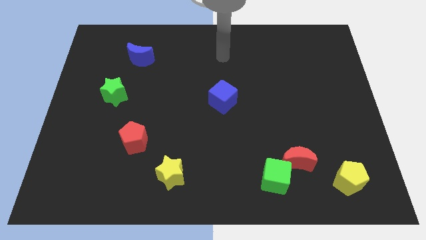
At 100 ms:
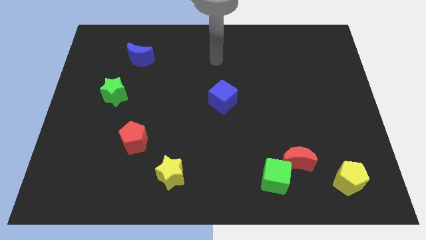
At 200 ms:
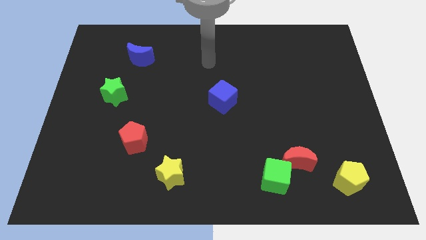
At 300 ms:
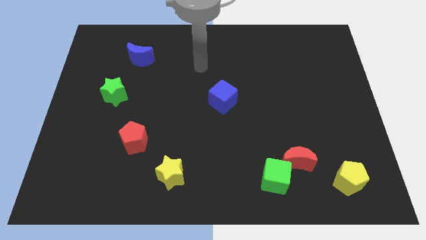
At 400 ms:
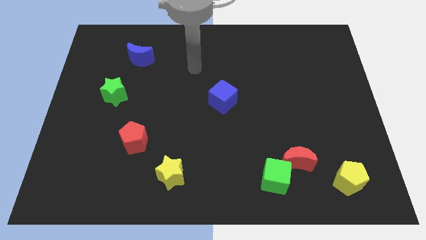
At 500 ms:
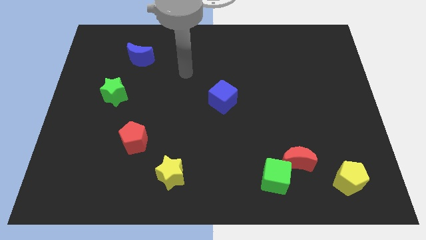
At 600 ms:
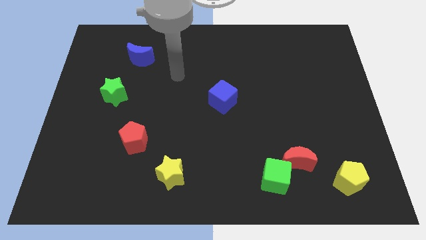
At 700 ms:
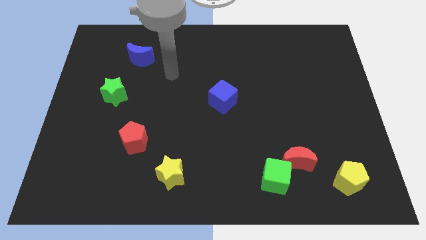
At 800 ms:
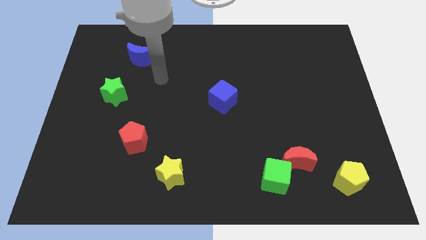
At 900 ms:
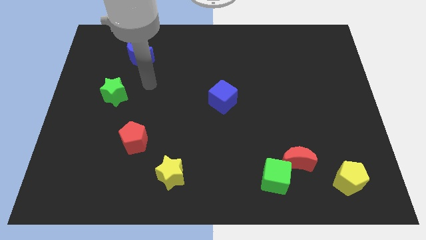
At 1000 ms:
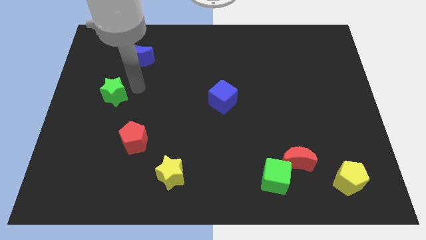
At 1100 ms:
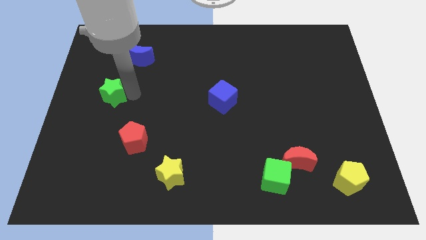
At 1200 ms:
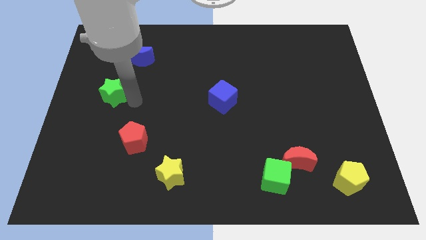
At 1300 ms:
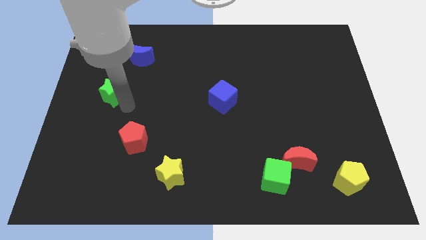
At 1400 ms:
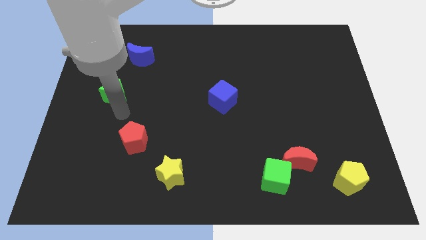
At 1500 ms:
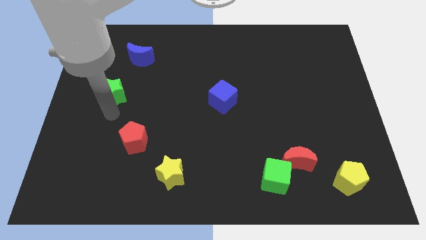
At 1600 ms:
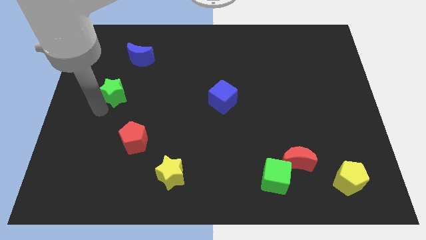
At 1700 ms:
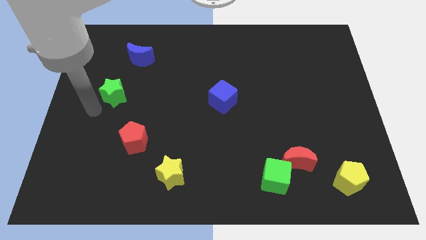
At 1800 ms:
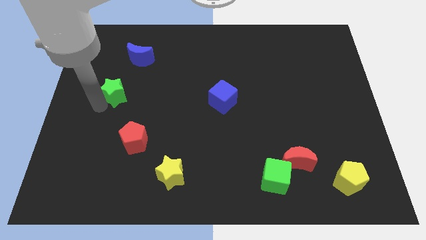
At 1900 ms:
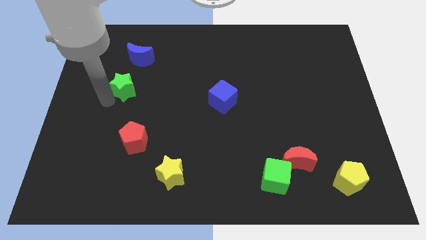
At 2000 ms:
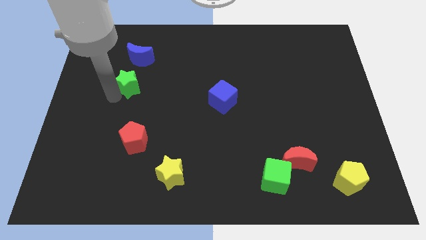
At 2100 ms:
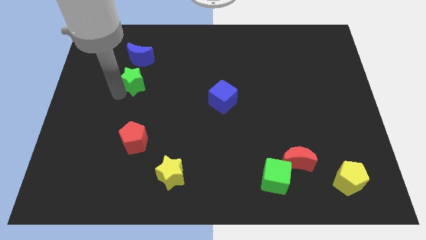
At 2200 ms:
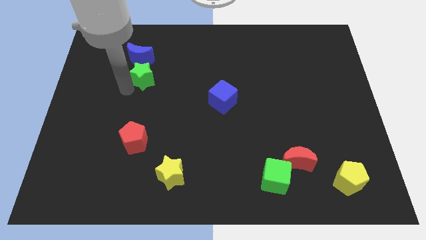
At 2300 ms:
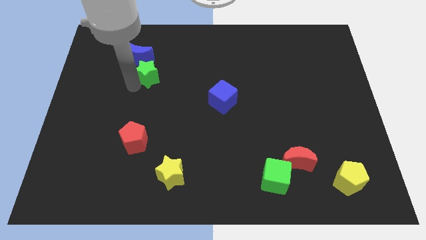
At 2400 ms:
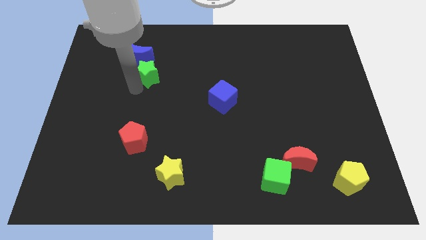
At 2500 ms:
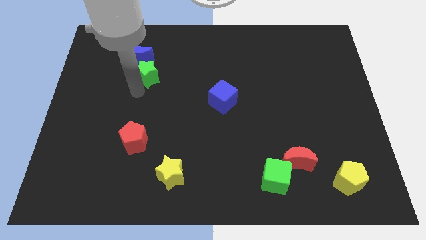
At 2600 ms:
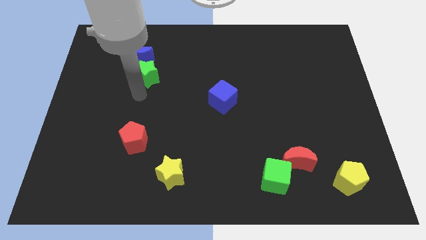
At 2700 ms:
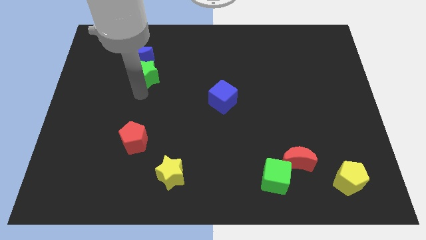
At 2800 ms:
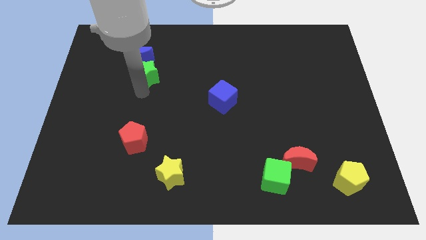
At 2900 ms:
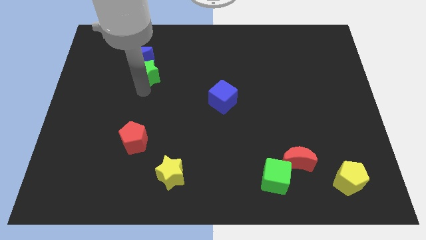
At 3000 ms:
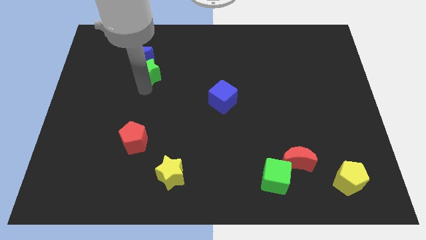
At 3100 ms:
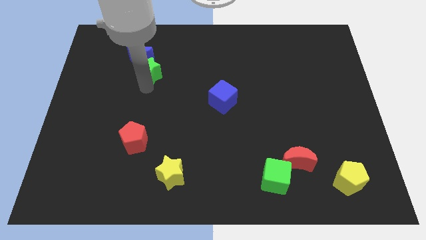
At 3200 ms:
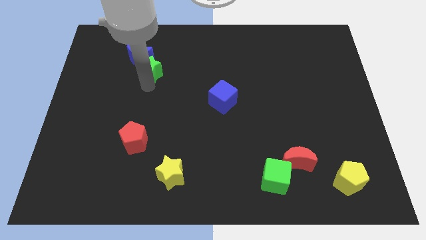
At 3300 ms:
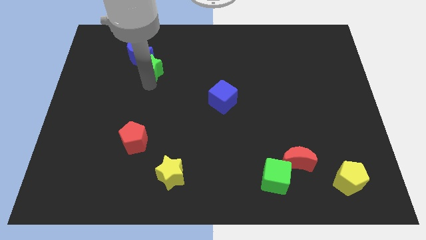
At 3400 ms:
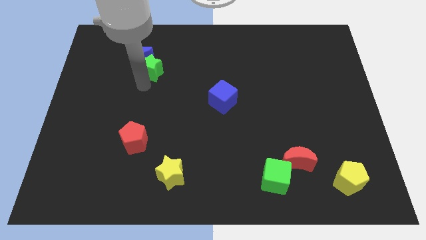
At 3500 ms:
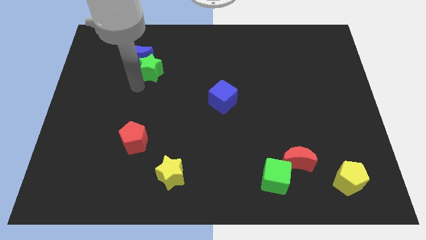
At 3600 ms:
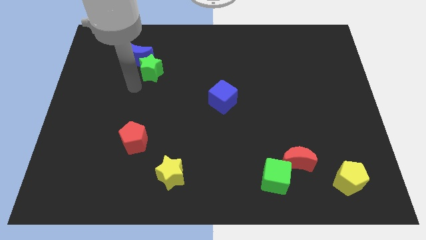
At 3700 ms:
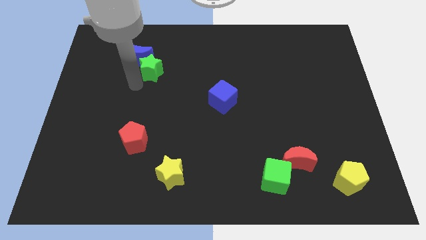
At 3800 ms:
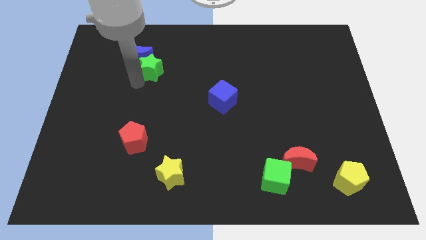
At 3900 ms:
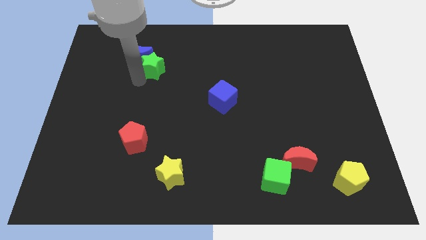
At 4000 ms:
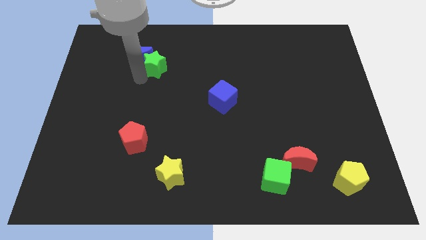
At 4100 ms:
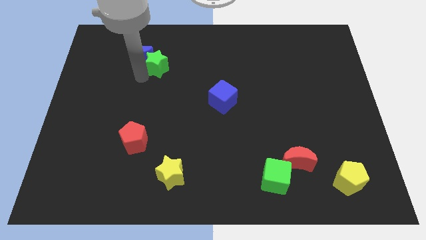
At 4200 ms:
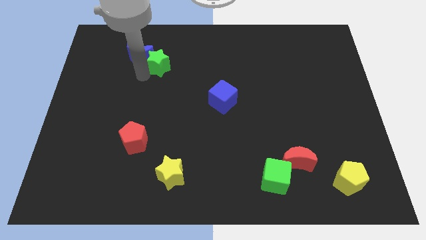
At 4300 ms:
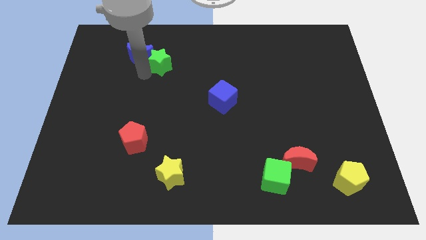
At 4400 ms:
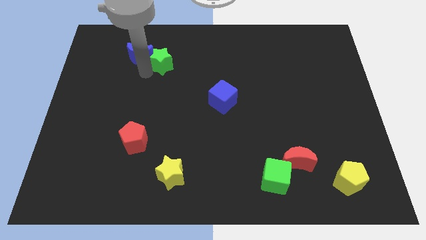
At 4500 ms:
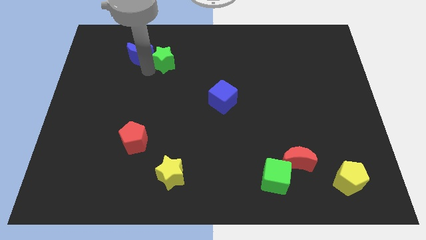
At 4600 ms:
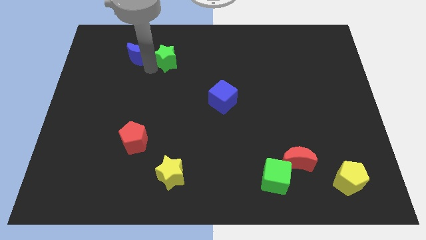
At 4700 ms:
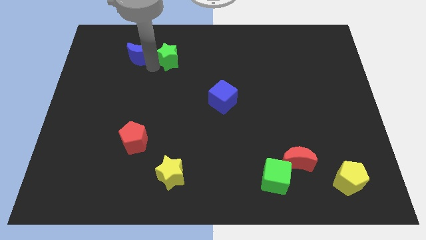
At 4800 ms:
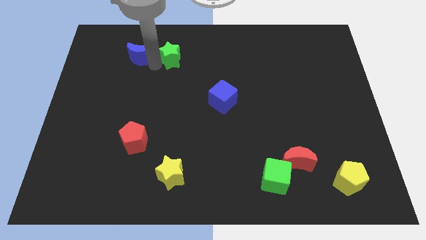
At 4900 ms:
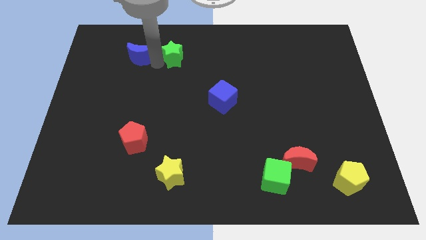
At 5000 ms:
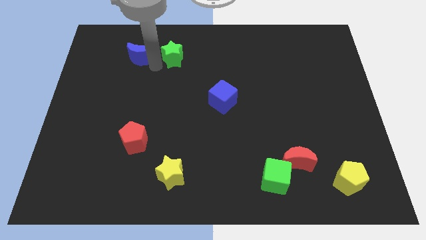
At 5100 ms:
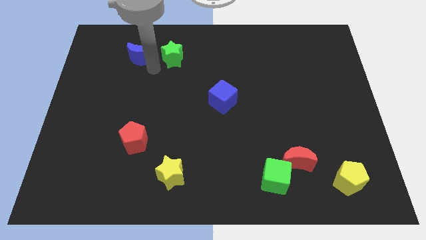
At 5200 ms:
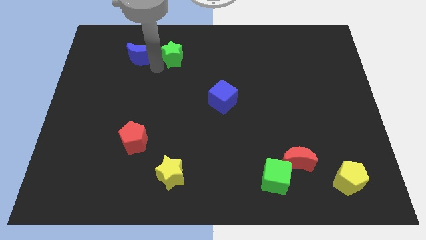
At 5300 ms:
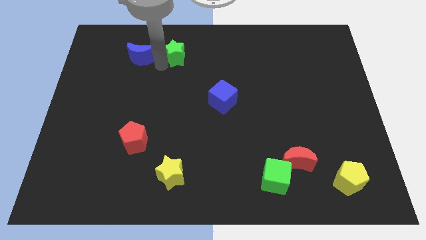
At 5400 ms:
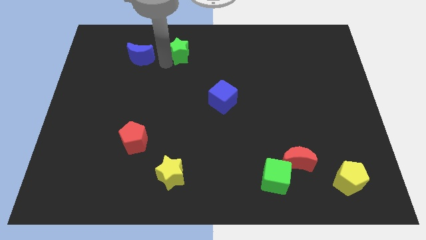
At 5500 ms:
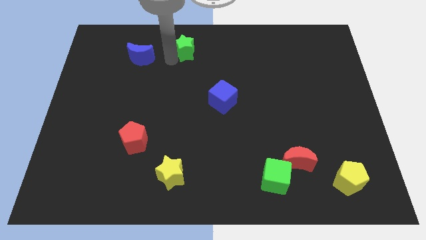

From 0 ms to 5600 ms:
move the green star to the top side
